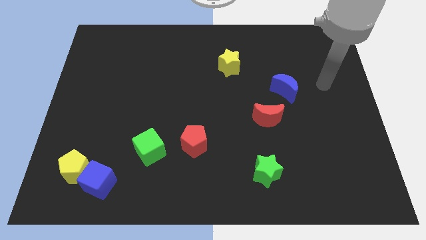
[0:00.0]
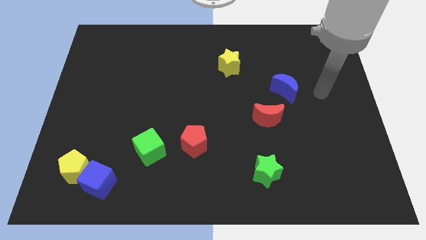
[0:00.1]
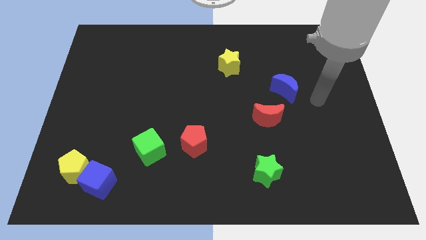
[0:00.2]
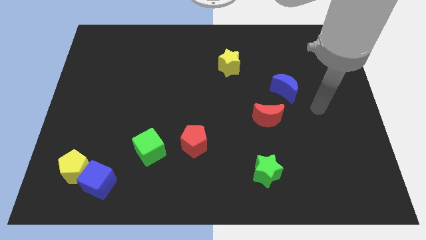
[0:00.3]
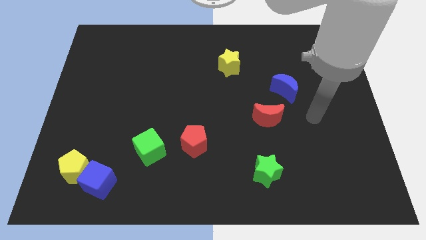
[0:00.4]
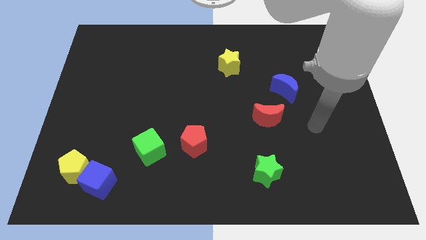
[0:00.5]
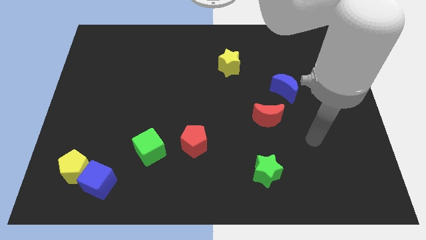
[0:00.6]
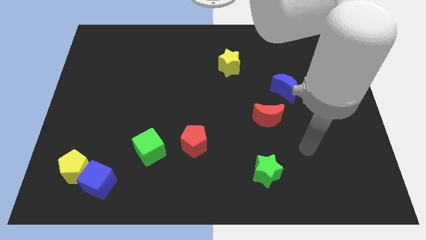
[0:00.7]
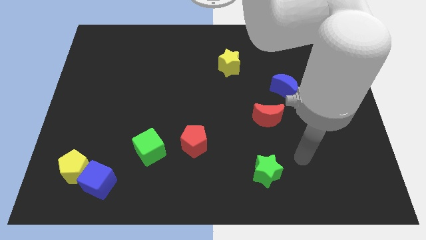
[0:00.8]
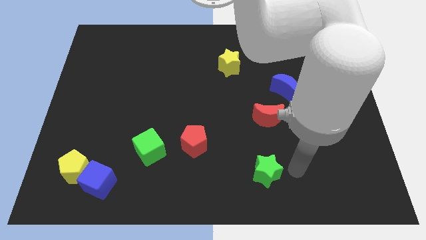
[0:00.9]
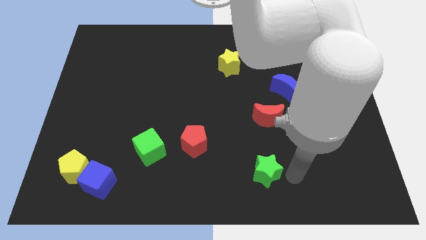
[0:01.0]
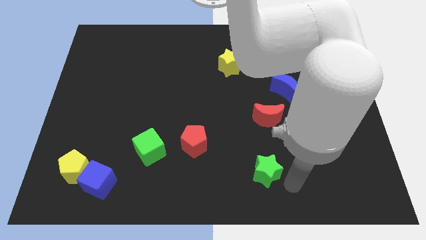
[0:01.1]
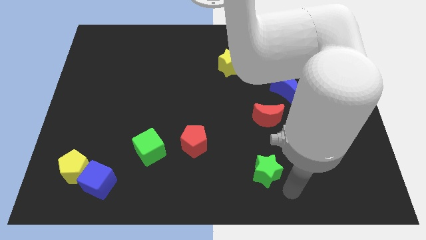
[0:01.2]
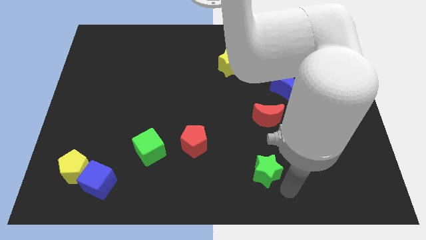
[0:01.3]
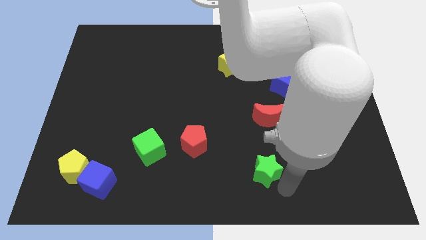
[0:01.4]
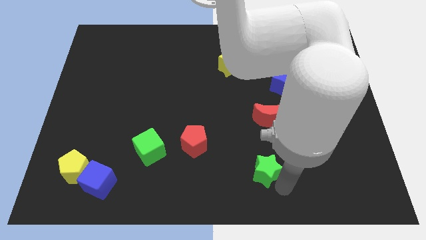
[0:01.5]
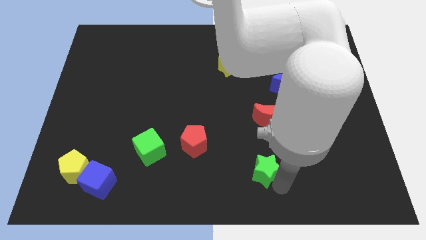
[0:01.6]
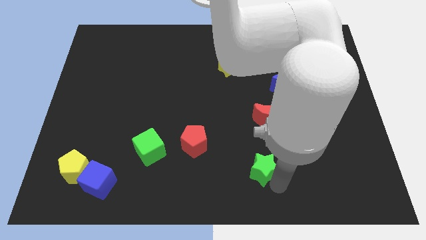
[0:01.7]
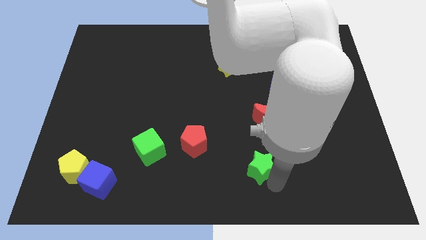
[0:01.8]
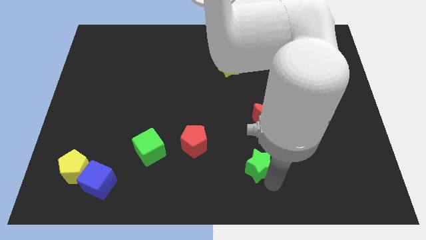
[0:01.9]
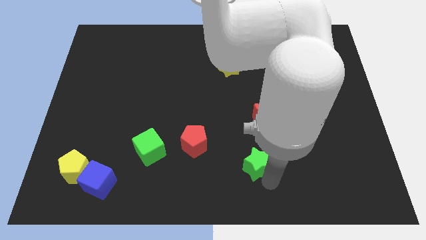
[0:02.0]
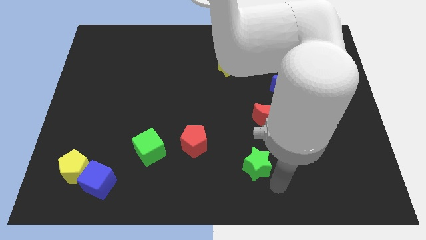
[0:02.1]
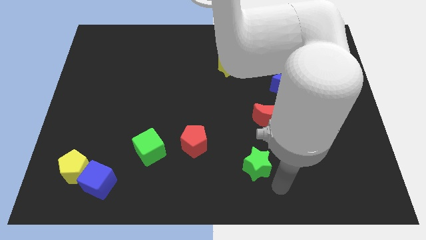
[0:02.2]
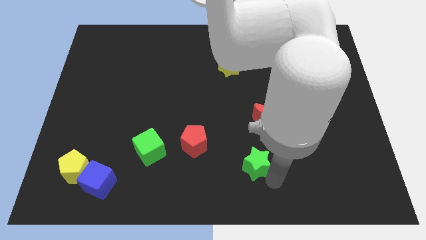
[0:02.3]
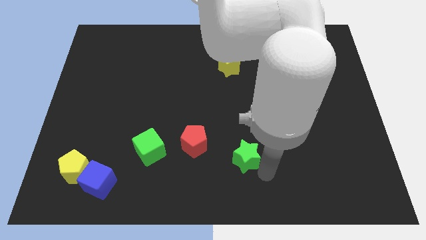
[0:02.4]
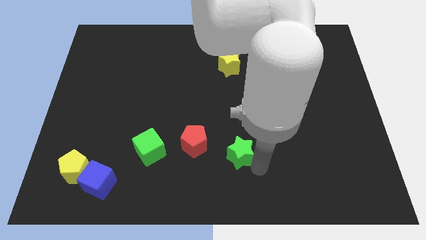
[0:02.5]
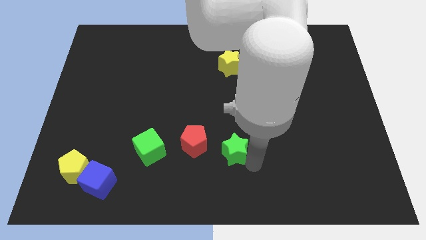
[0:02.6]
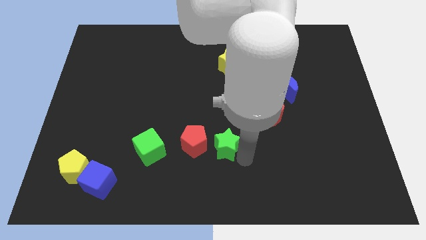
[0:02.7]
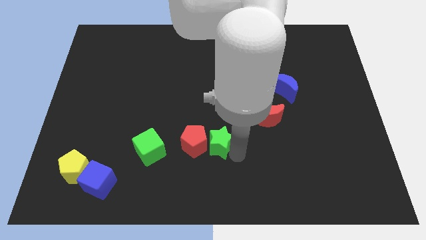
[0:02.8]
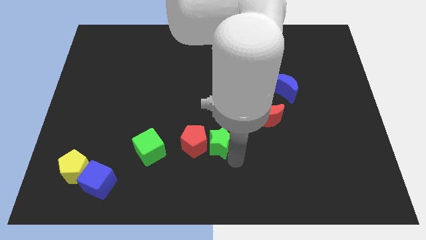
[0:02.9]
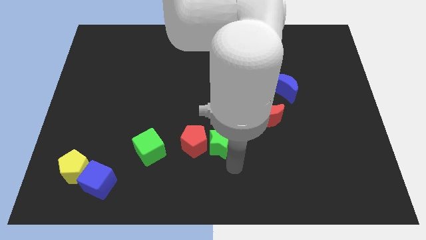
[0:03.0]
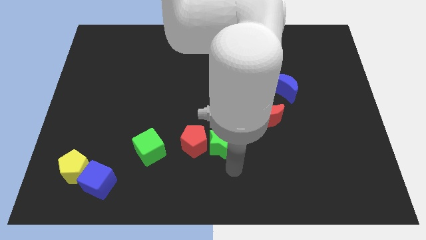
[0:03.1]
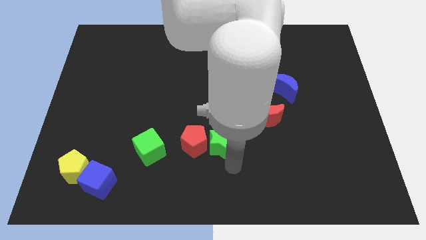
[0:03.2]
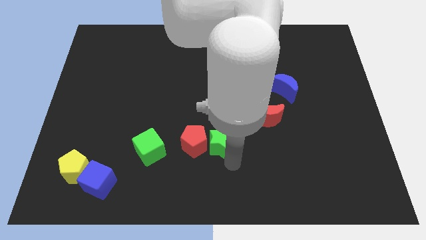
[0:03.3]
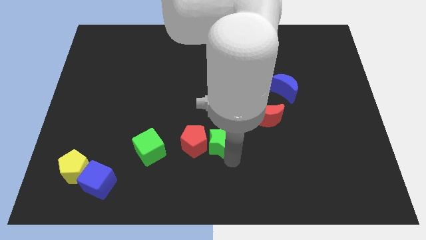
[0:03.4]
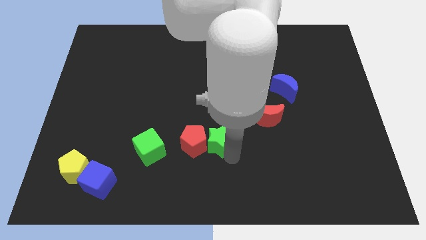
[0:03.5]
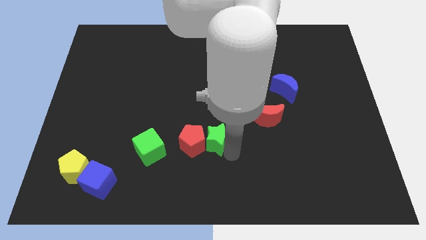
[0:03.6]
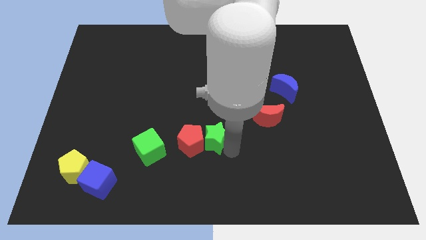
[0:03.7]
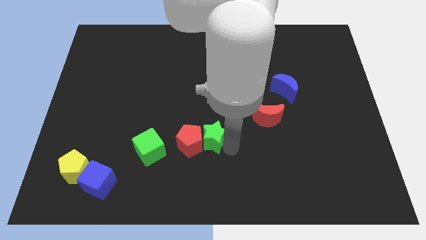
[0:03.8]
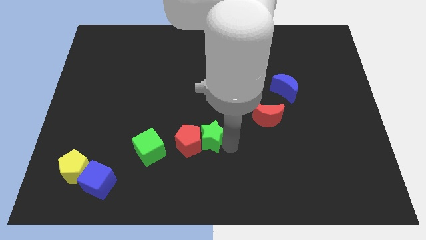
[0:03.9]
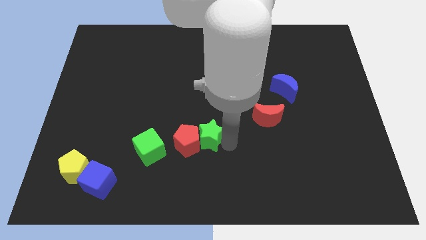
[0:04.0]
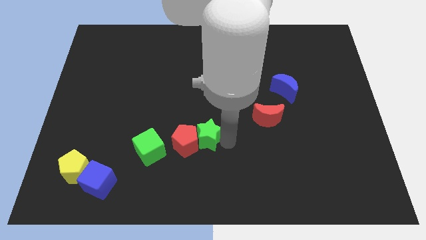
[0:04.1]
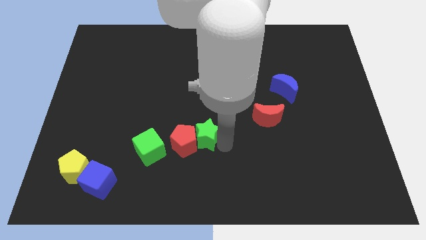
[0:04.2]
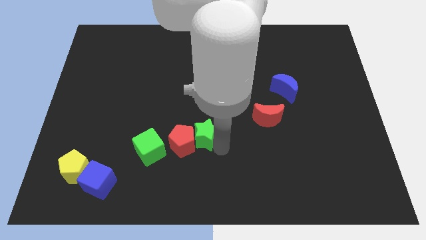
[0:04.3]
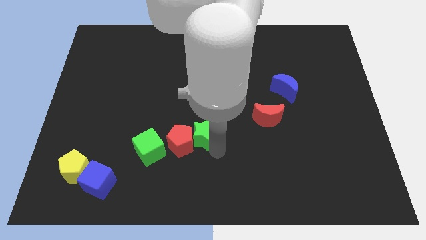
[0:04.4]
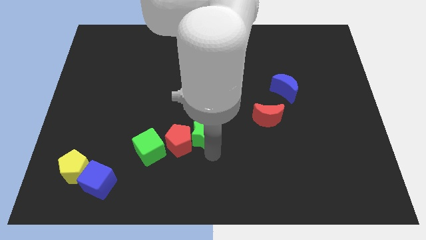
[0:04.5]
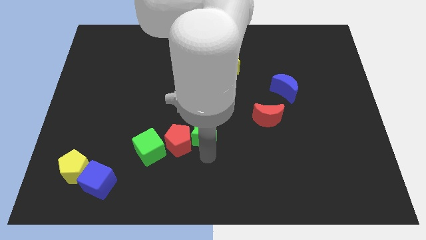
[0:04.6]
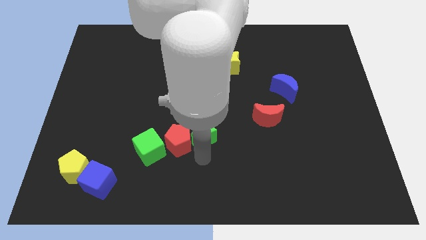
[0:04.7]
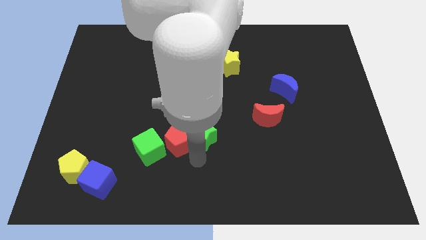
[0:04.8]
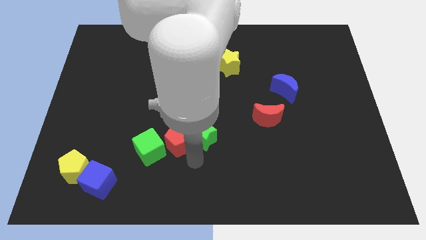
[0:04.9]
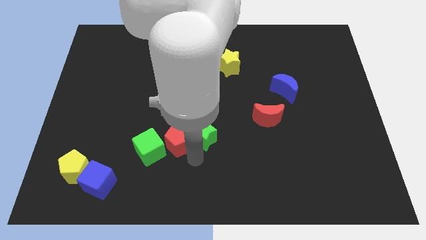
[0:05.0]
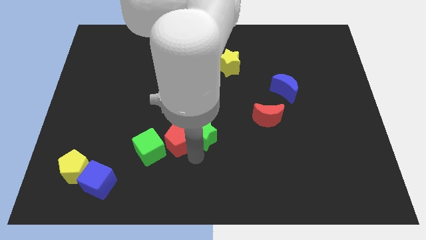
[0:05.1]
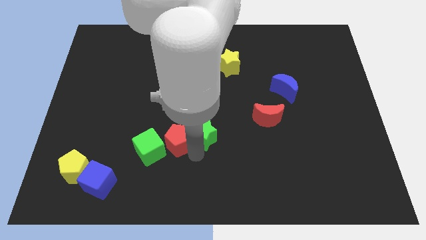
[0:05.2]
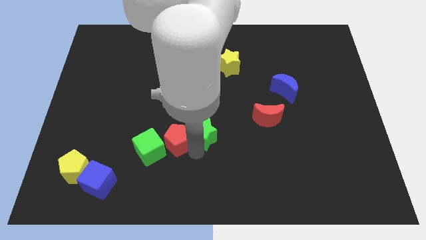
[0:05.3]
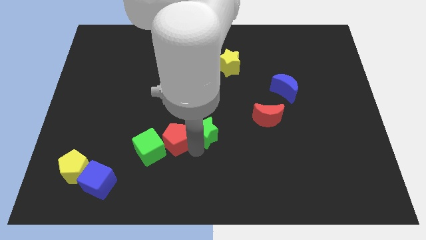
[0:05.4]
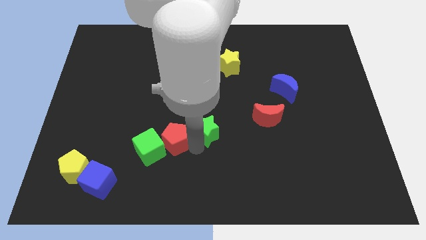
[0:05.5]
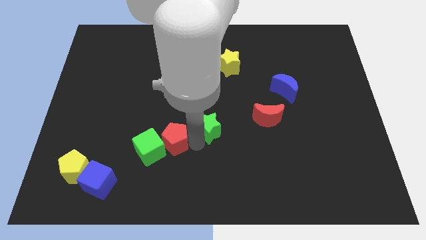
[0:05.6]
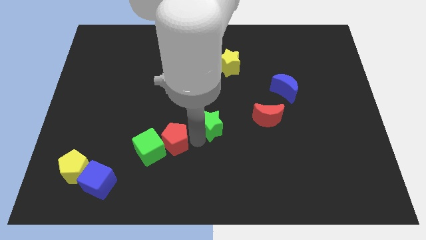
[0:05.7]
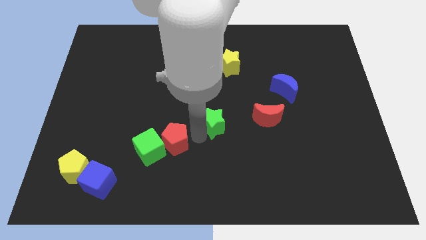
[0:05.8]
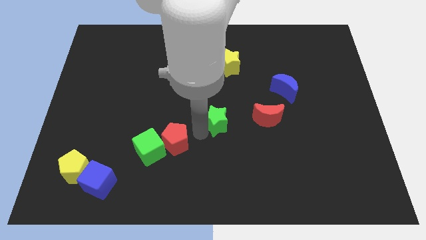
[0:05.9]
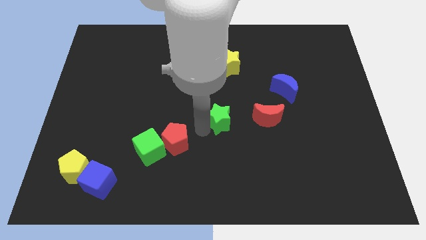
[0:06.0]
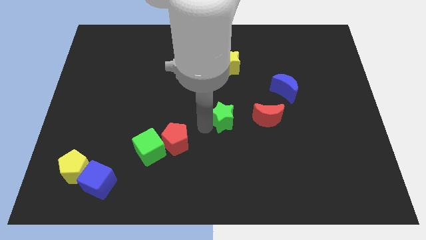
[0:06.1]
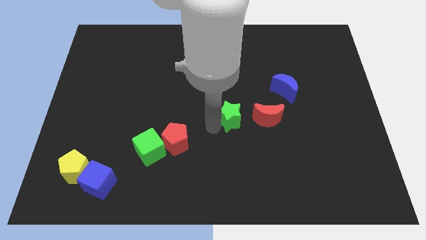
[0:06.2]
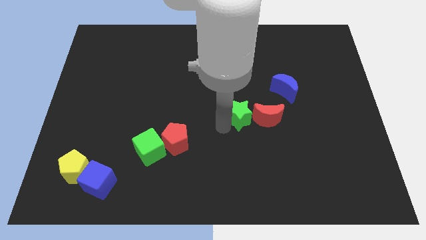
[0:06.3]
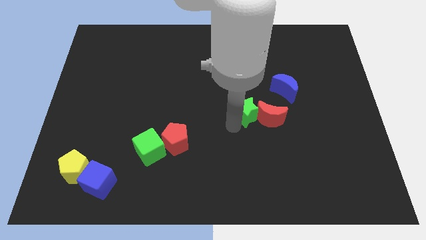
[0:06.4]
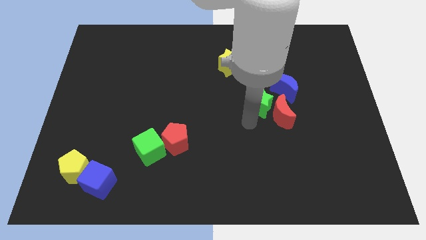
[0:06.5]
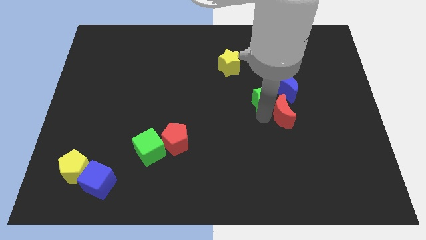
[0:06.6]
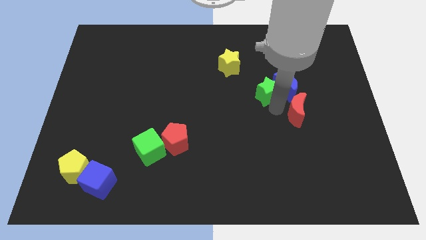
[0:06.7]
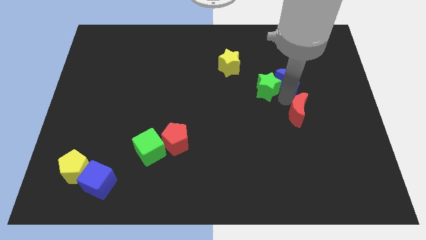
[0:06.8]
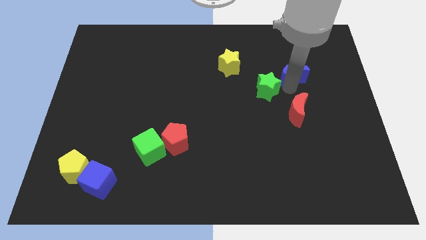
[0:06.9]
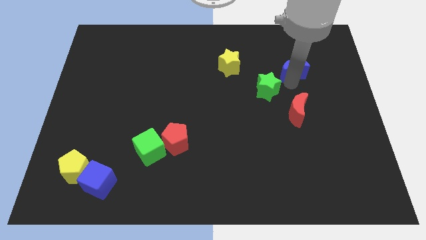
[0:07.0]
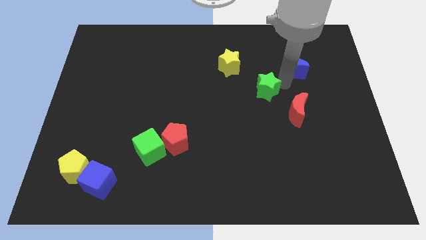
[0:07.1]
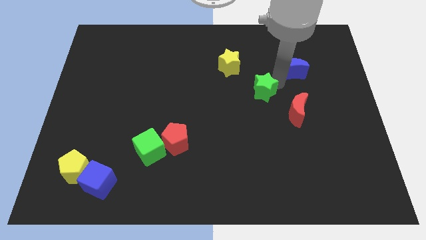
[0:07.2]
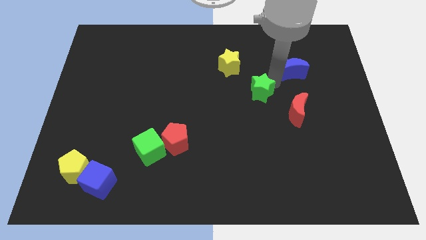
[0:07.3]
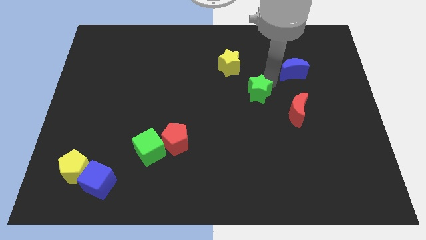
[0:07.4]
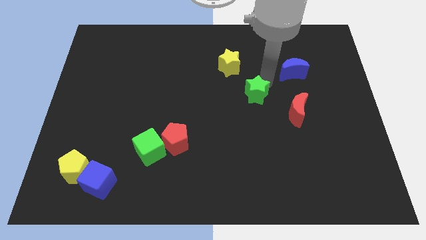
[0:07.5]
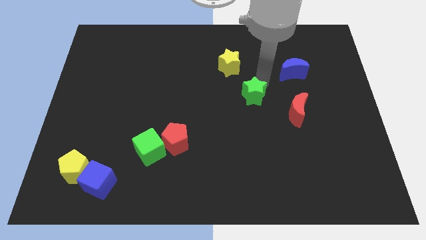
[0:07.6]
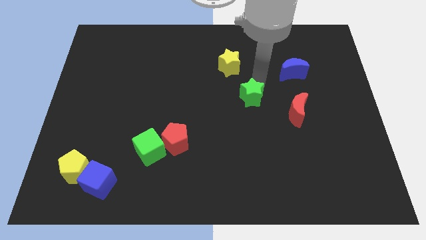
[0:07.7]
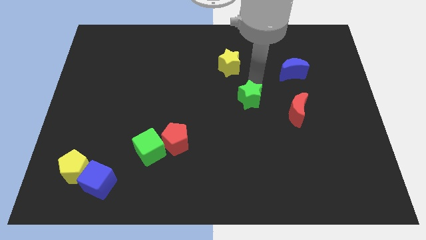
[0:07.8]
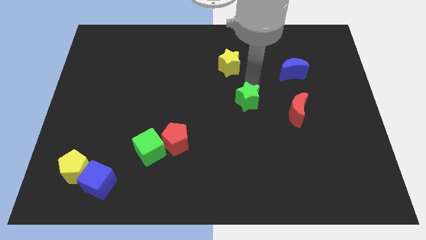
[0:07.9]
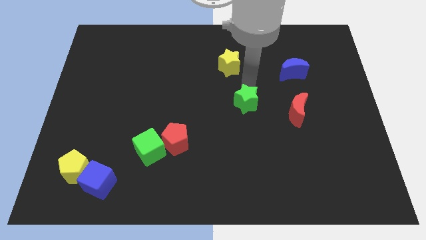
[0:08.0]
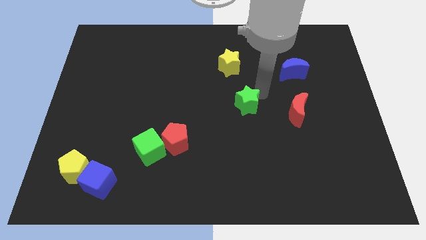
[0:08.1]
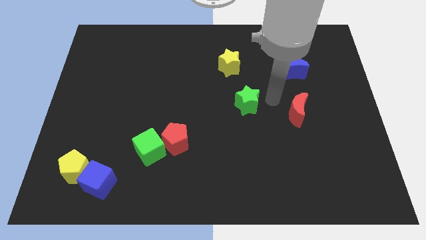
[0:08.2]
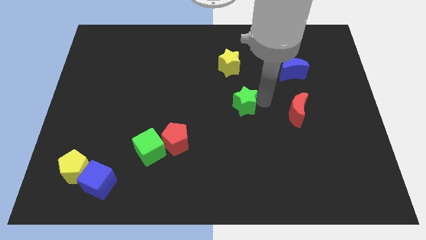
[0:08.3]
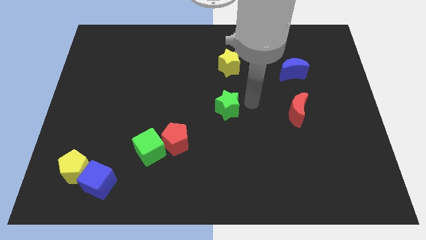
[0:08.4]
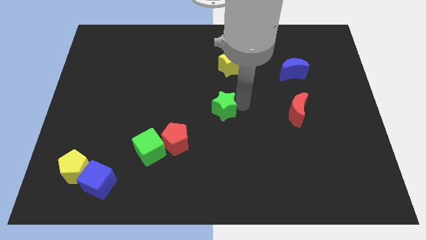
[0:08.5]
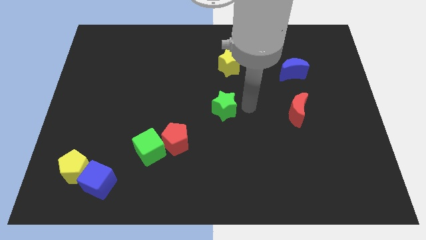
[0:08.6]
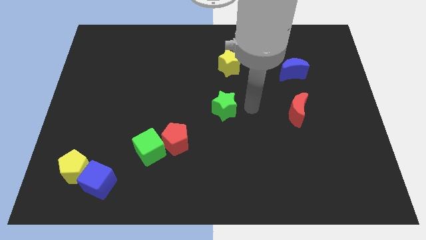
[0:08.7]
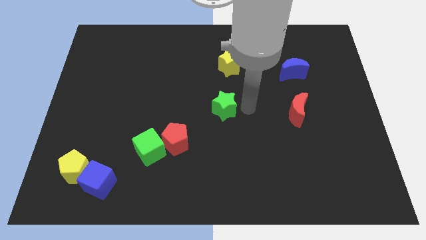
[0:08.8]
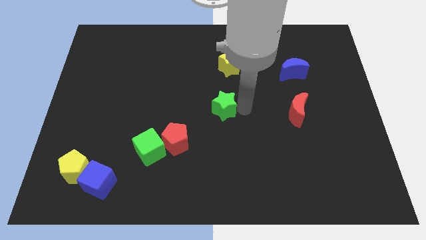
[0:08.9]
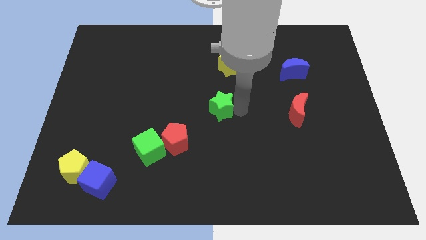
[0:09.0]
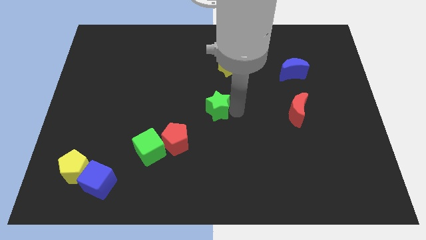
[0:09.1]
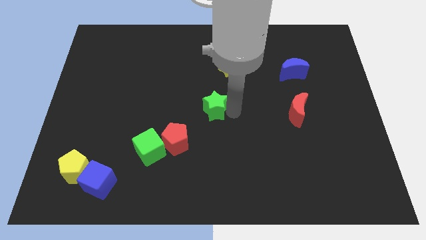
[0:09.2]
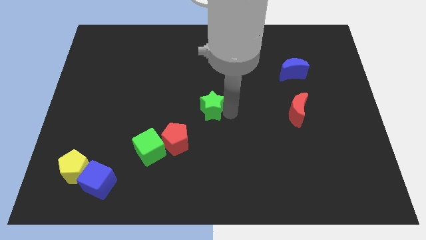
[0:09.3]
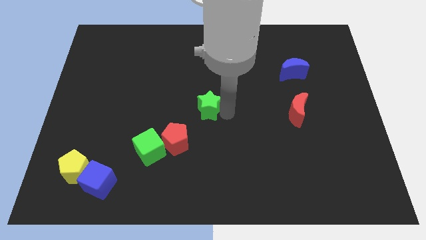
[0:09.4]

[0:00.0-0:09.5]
push the green star upwards and left diagonally
